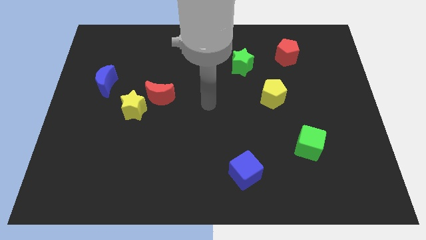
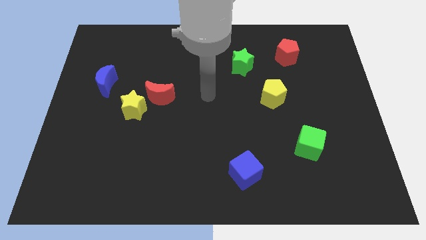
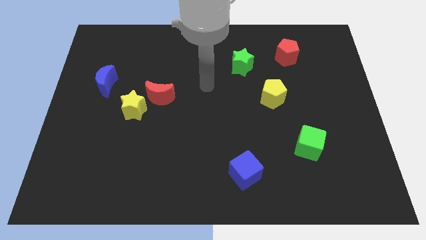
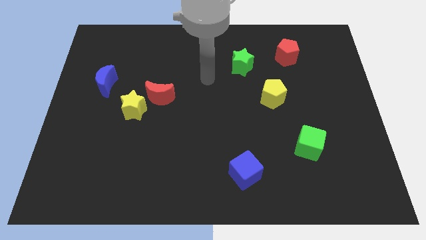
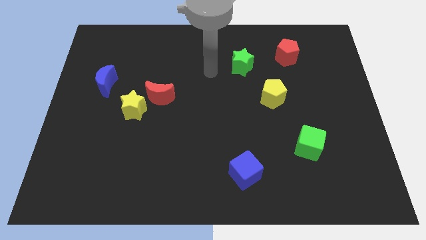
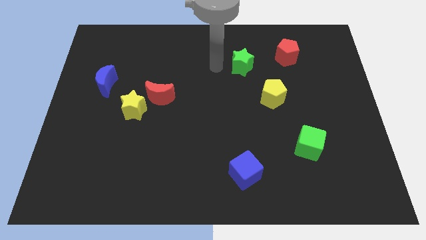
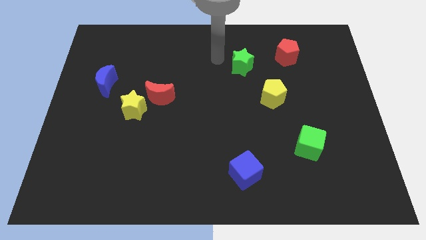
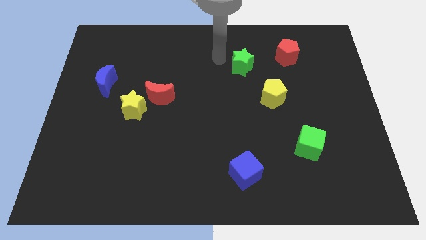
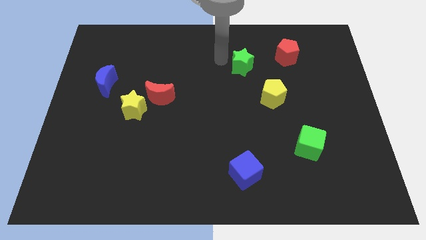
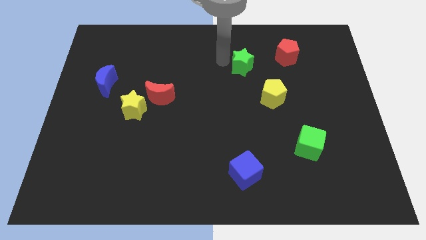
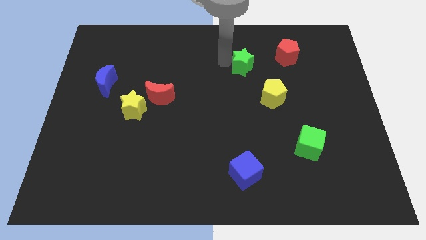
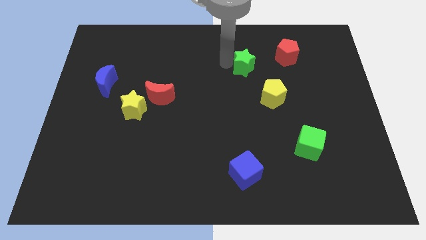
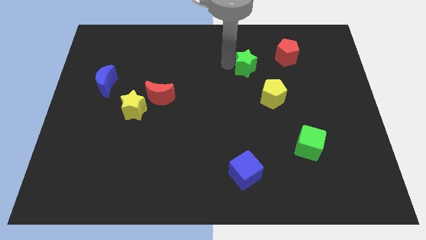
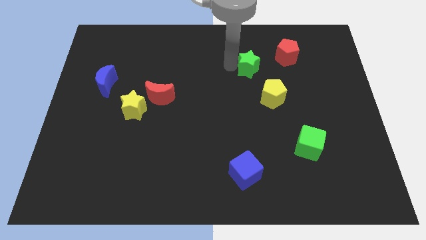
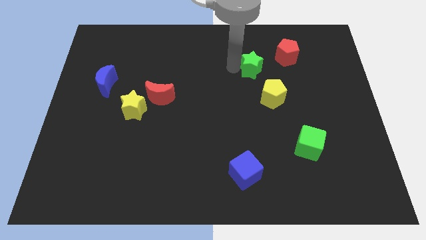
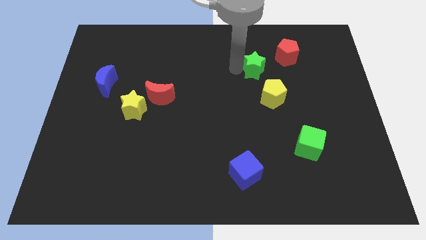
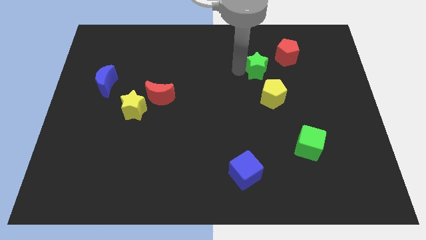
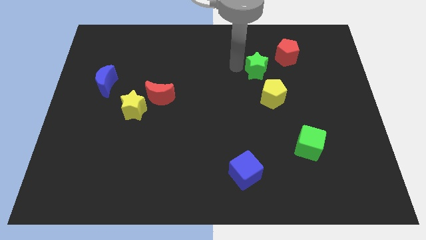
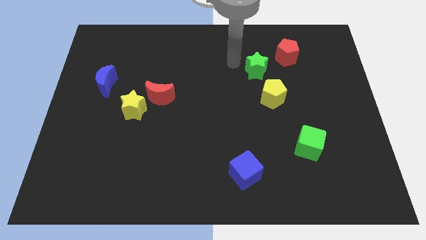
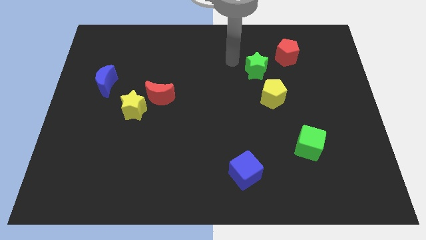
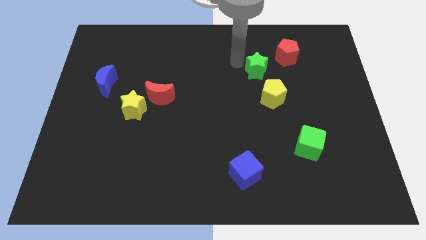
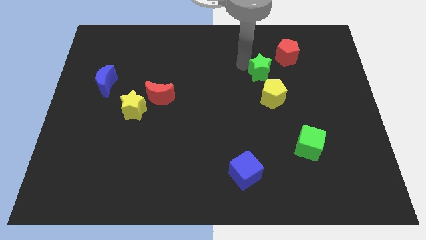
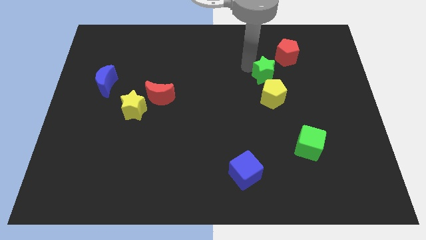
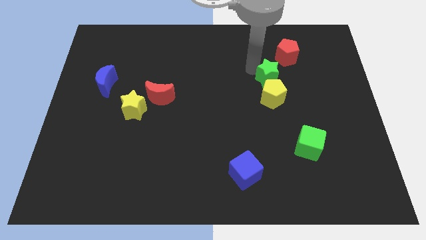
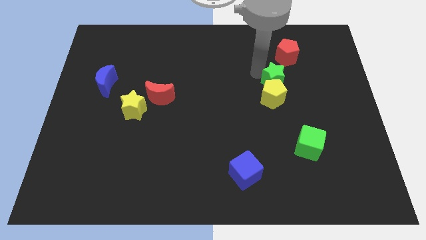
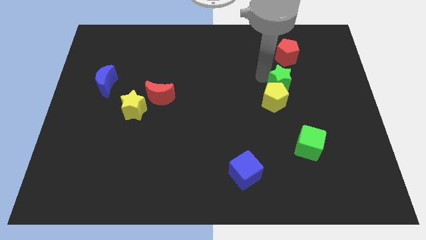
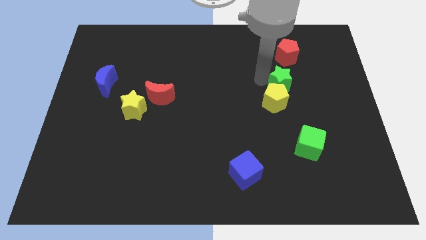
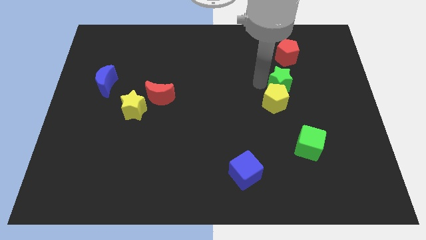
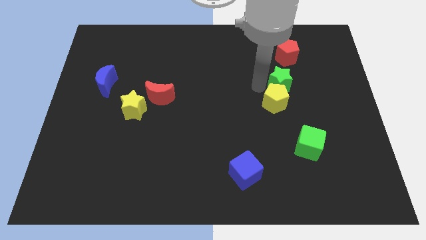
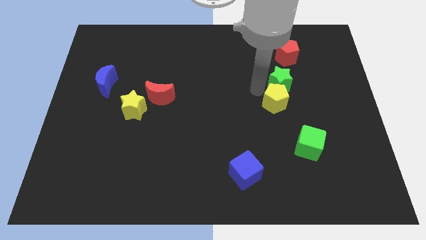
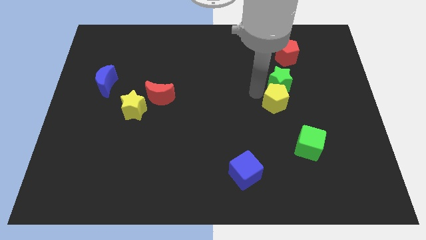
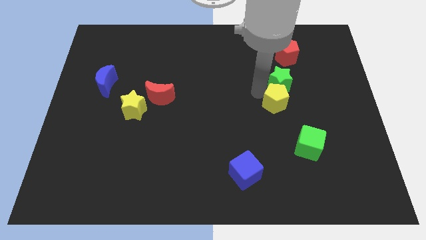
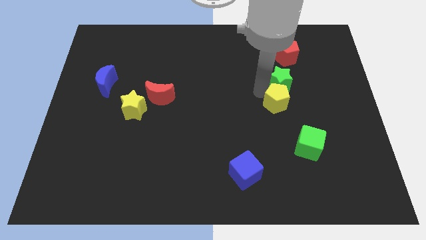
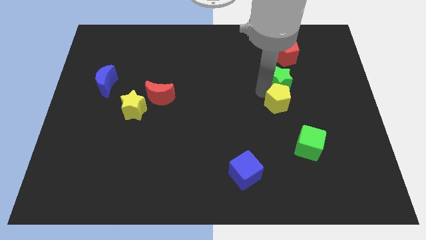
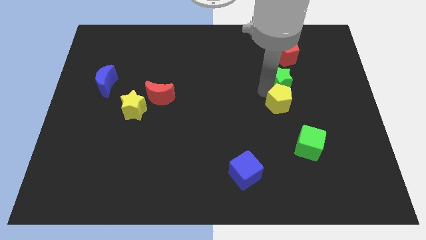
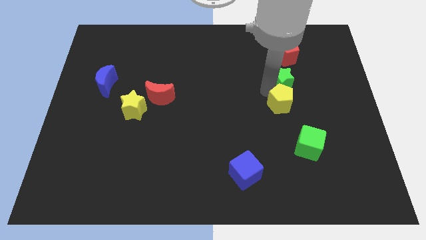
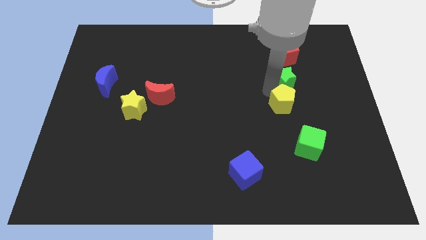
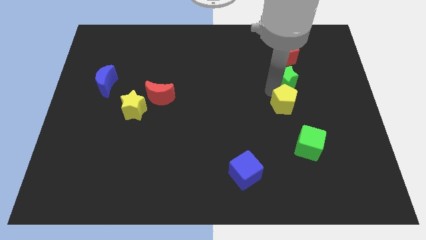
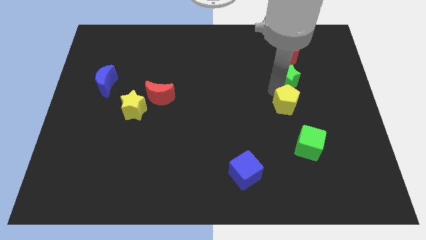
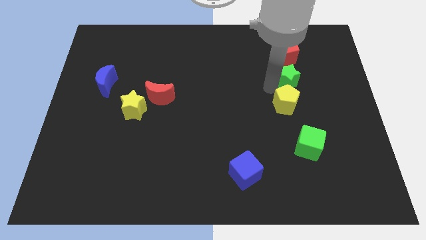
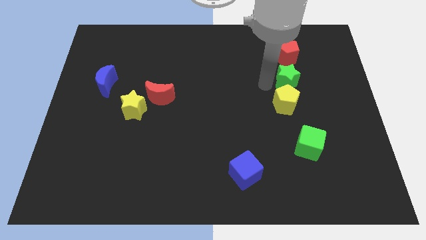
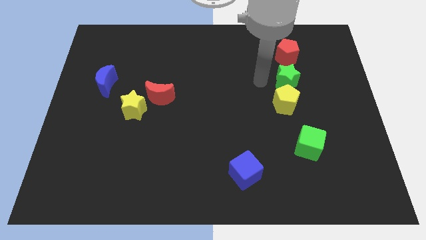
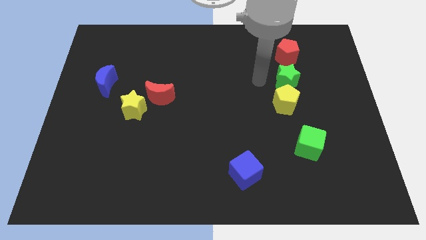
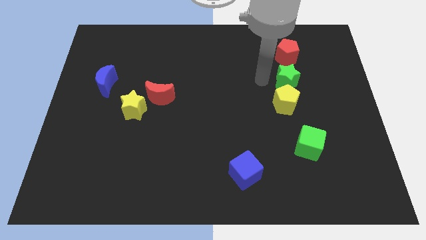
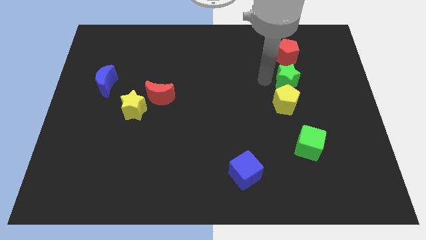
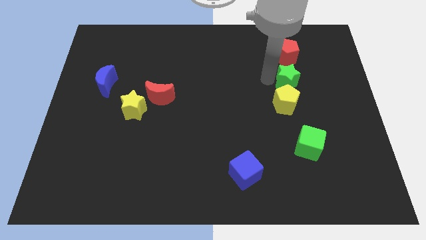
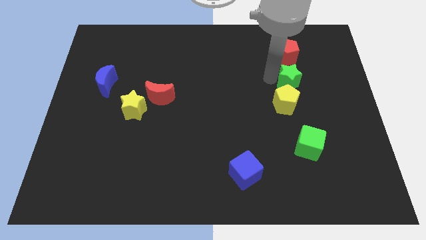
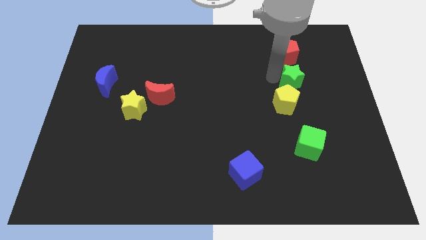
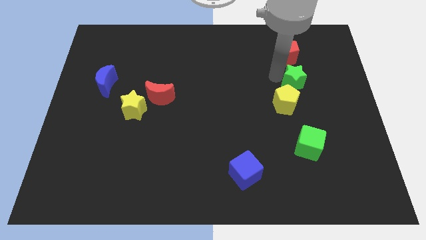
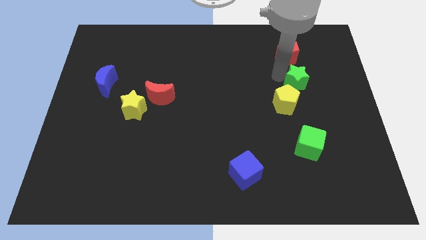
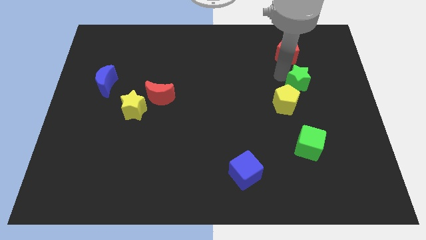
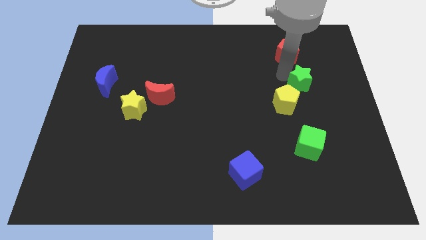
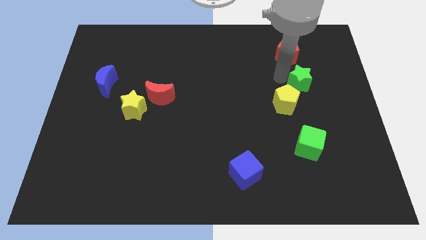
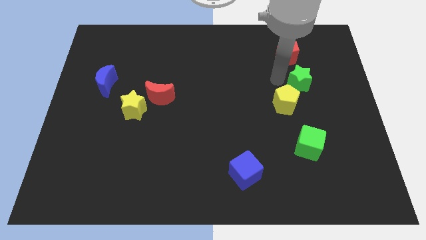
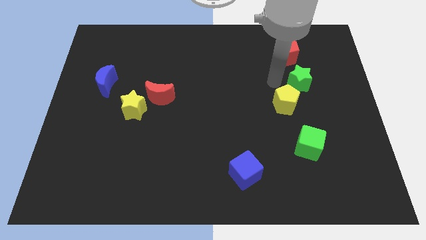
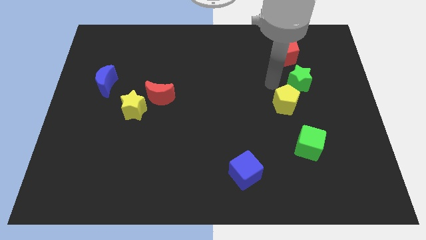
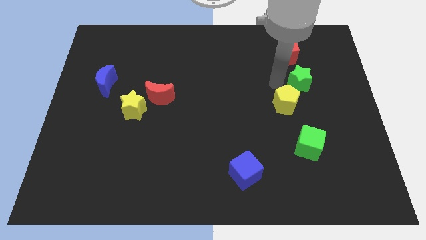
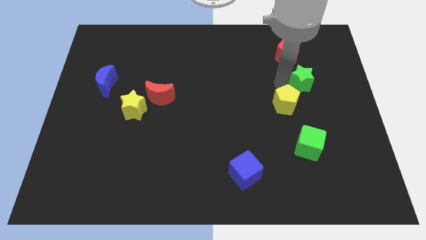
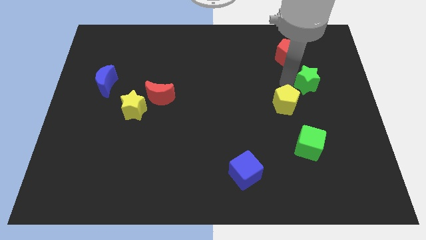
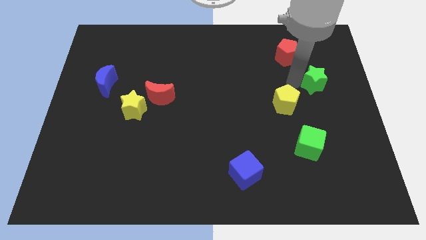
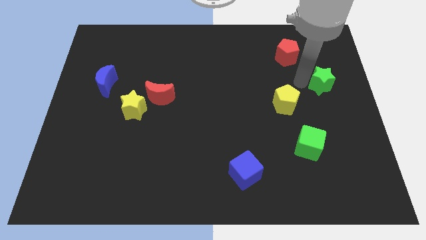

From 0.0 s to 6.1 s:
push the green star to the right side

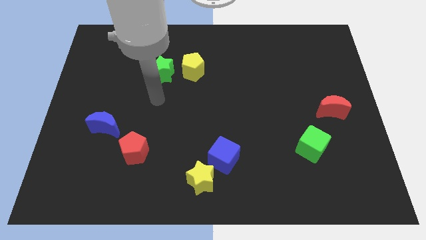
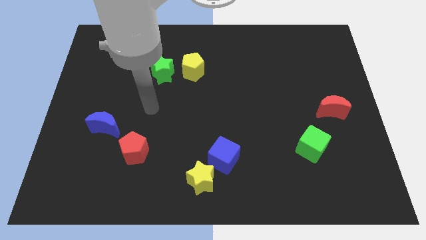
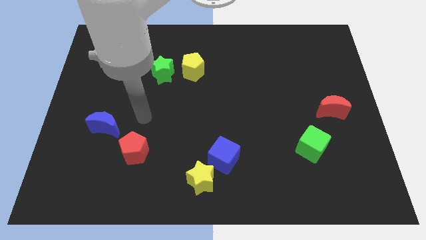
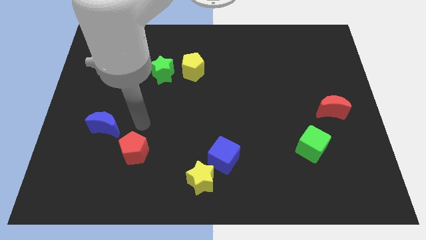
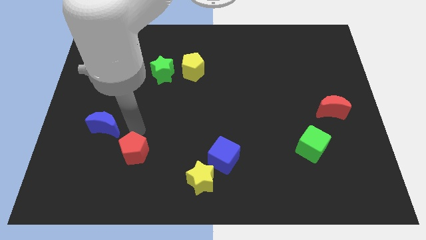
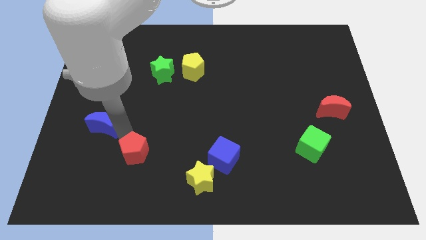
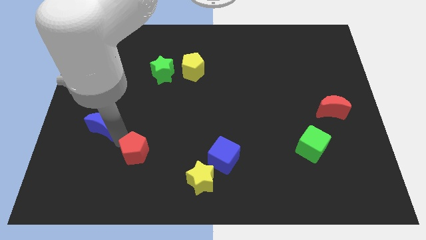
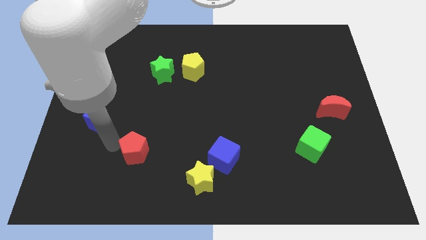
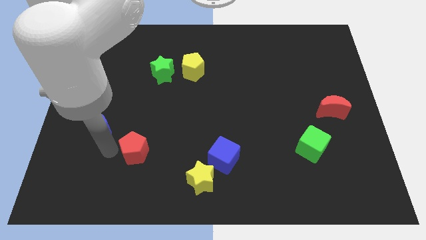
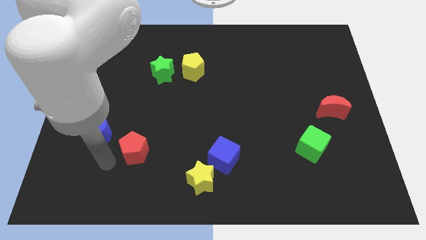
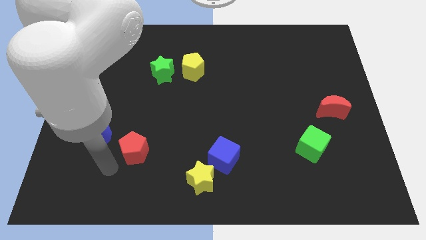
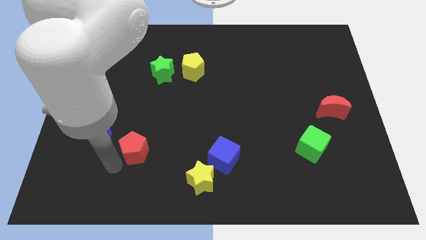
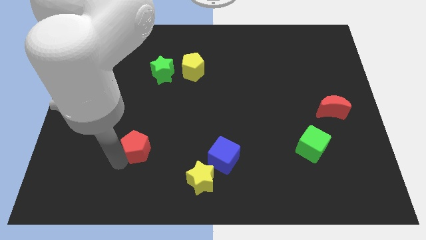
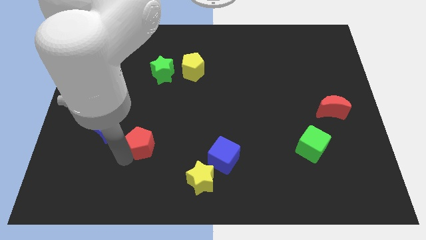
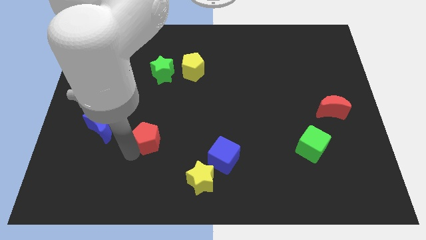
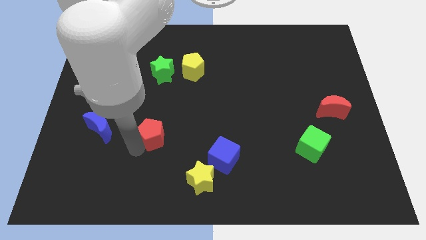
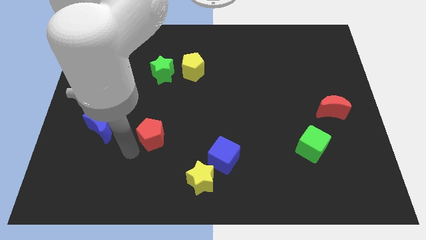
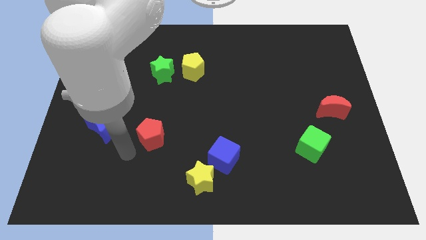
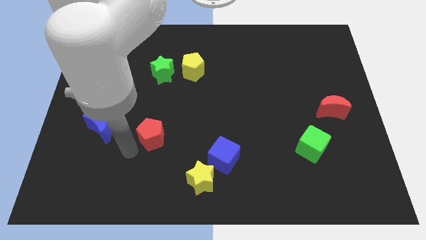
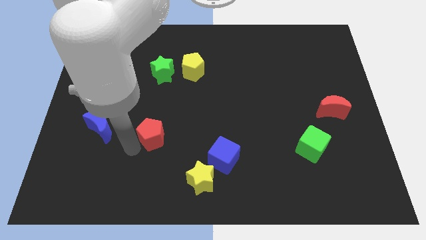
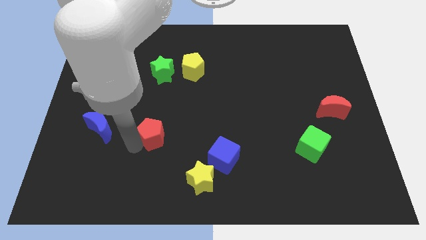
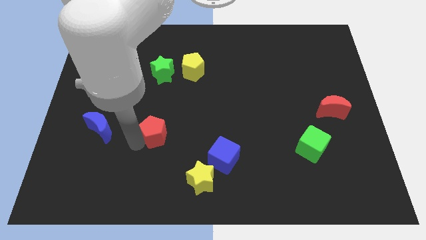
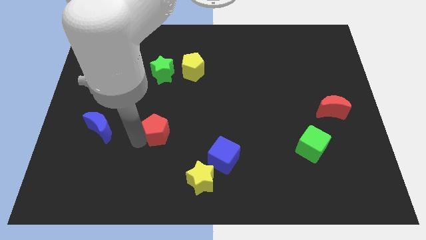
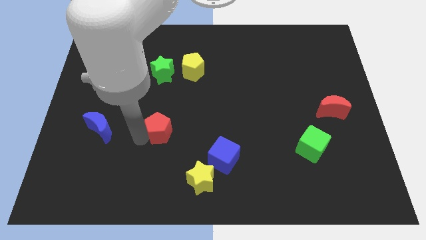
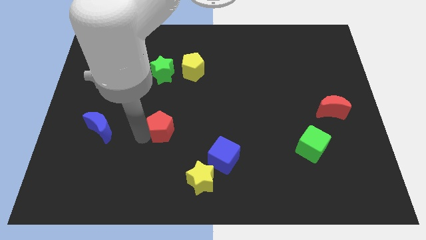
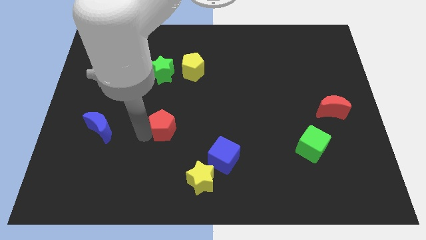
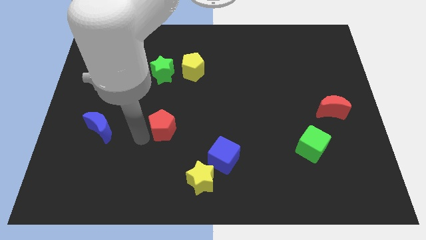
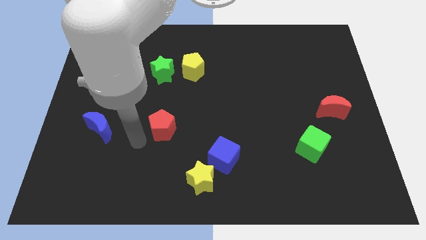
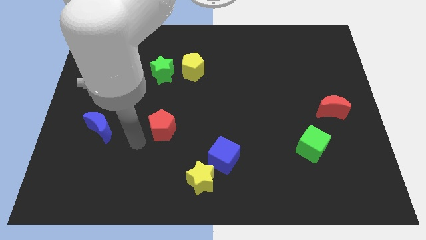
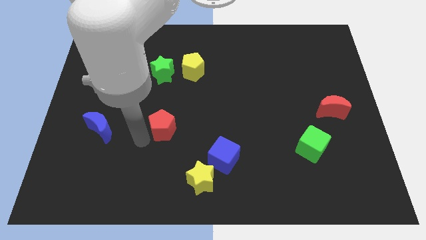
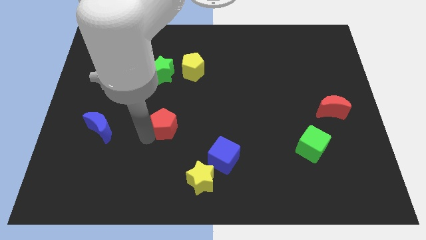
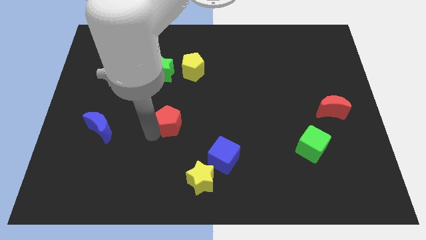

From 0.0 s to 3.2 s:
slide the red pentagon to the center of the board
